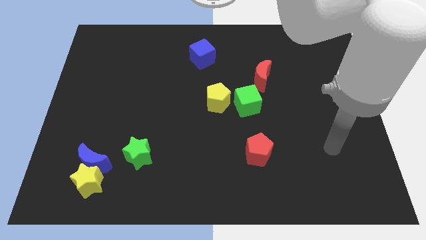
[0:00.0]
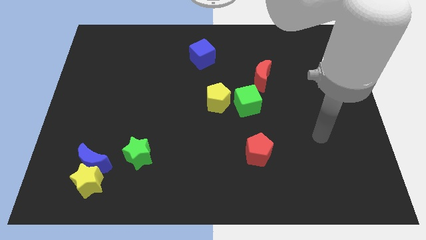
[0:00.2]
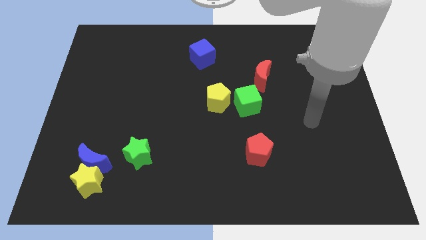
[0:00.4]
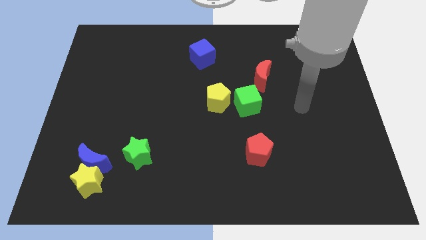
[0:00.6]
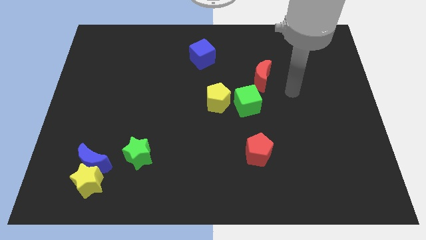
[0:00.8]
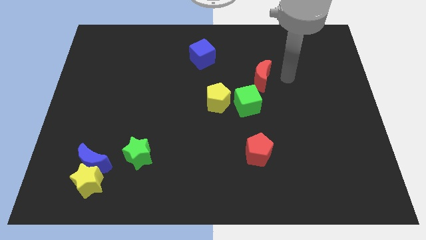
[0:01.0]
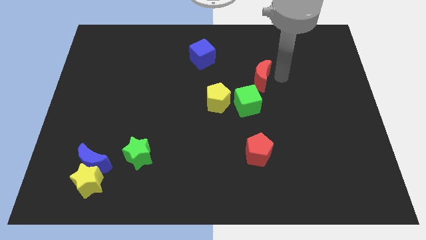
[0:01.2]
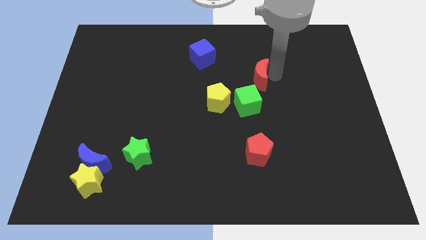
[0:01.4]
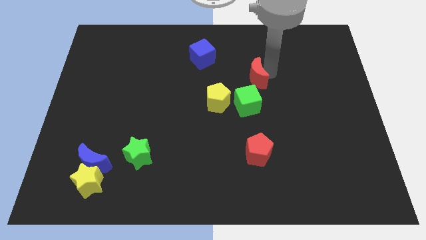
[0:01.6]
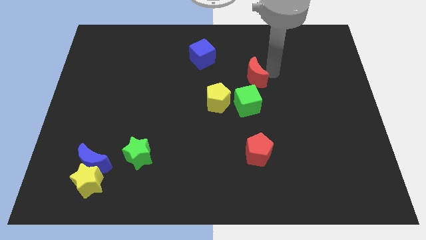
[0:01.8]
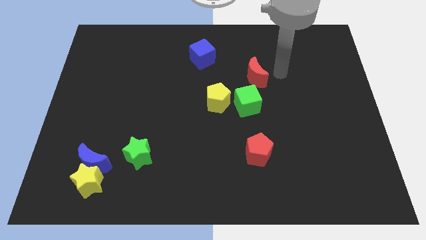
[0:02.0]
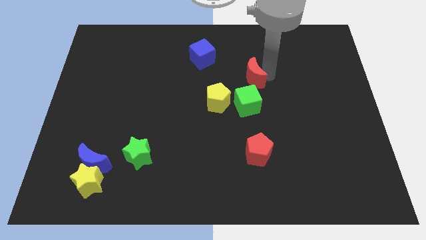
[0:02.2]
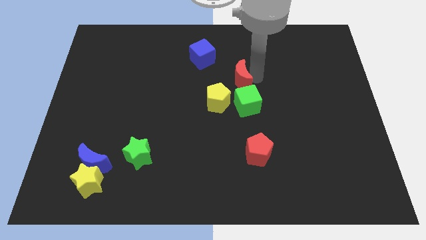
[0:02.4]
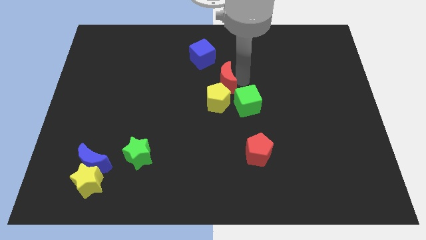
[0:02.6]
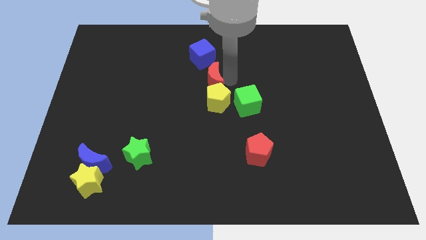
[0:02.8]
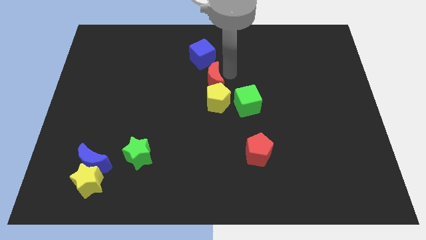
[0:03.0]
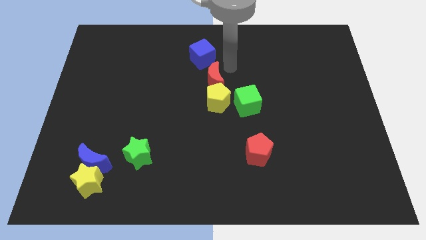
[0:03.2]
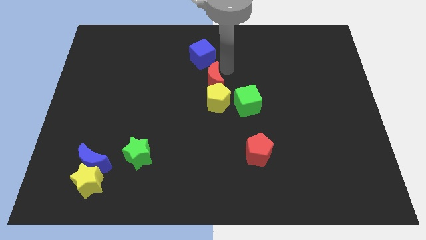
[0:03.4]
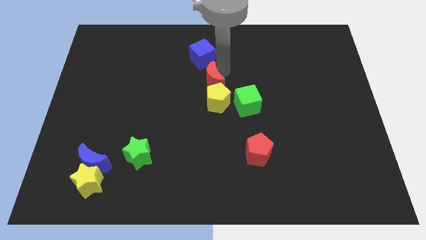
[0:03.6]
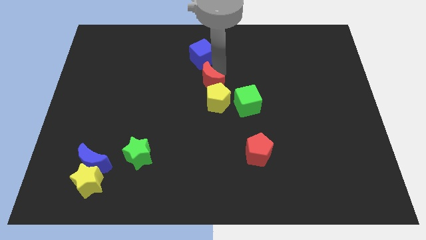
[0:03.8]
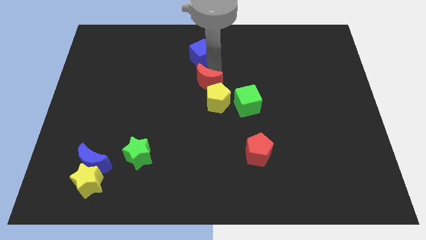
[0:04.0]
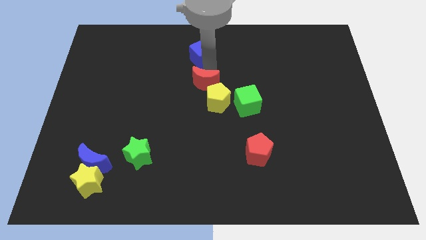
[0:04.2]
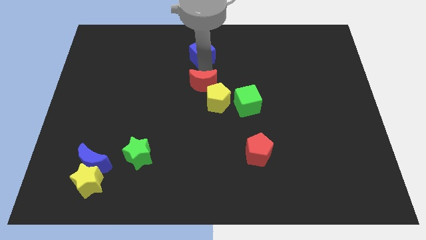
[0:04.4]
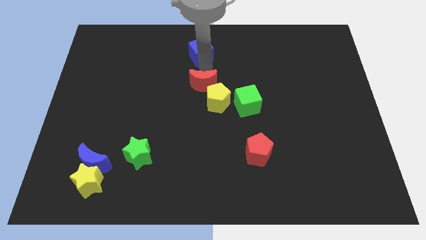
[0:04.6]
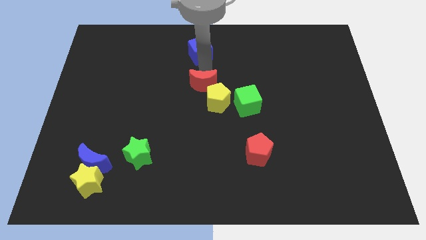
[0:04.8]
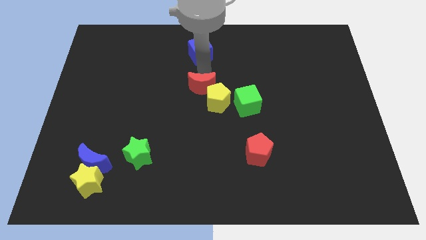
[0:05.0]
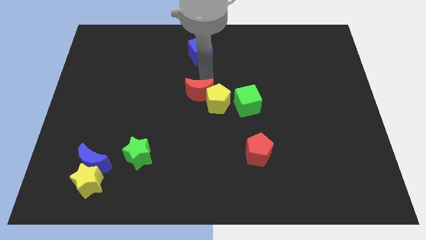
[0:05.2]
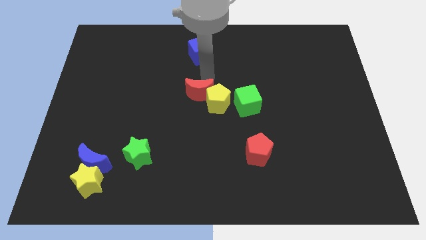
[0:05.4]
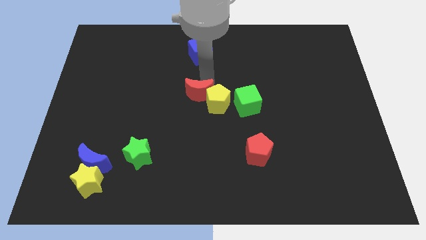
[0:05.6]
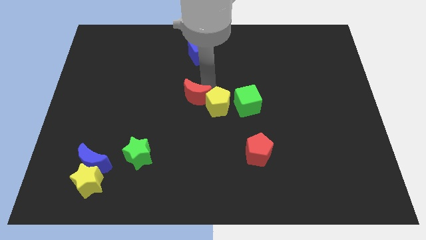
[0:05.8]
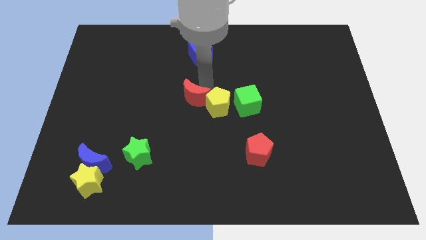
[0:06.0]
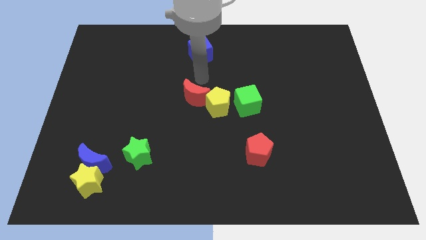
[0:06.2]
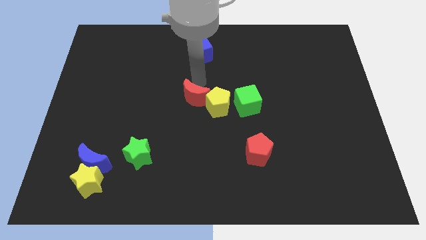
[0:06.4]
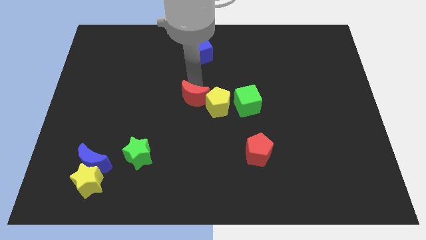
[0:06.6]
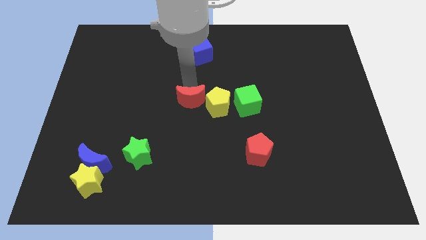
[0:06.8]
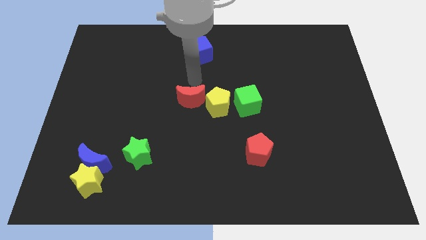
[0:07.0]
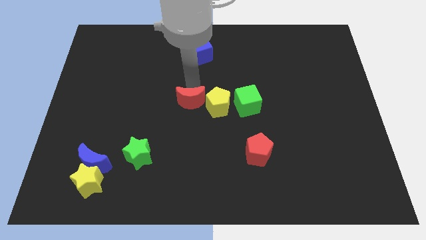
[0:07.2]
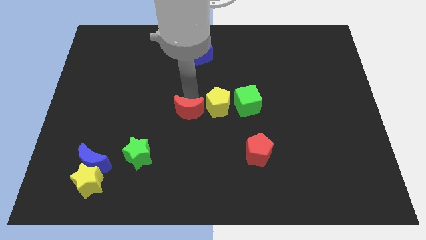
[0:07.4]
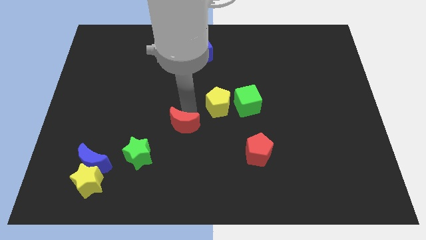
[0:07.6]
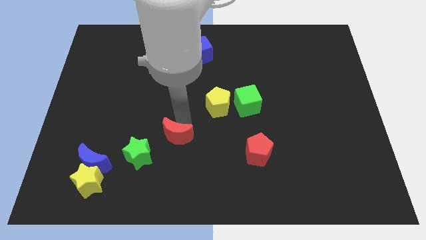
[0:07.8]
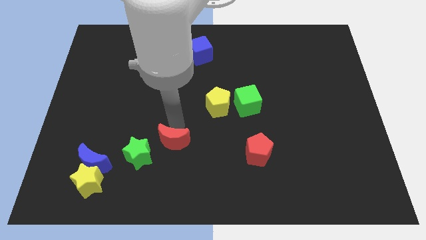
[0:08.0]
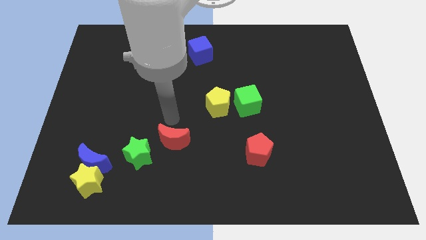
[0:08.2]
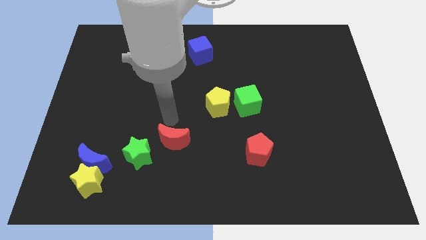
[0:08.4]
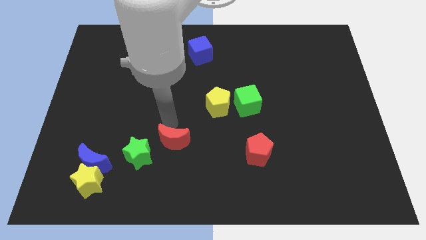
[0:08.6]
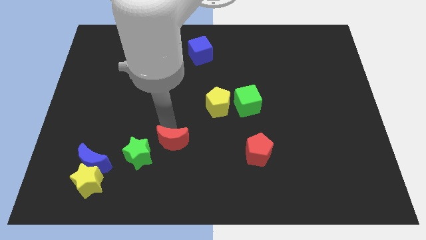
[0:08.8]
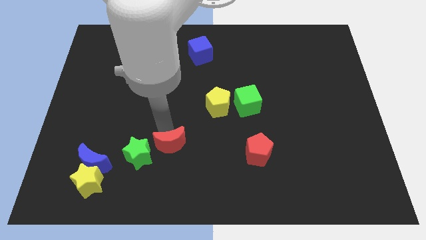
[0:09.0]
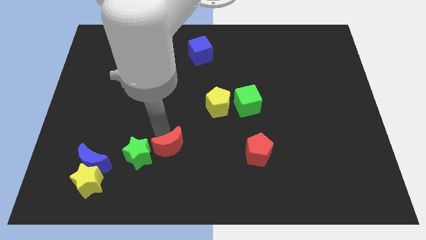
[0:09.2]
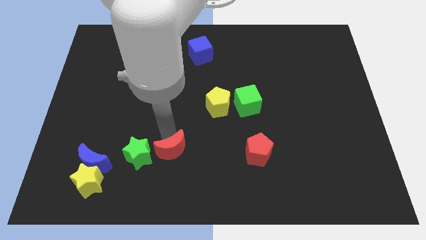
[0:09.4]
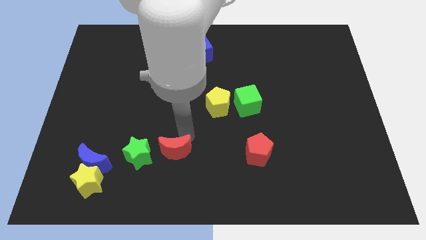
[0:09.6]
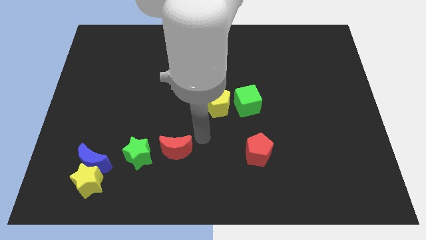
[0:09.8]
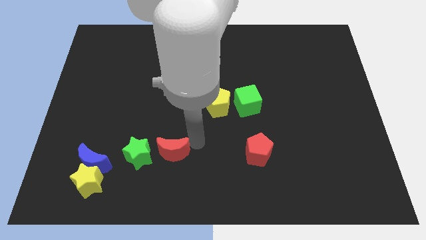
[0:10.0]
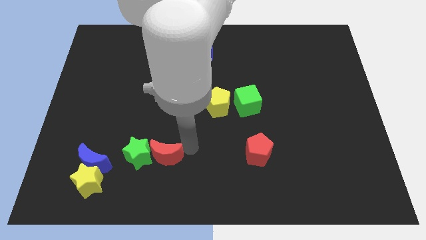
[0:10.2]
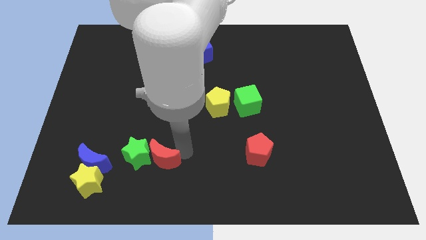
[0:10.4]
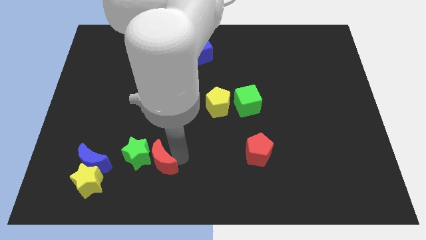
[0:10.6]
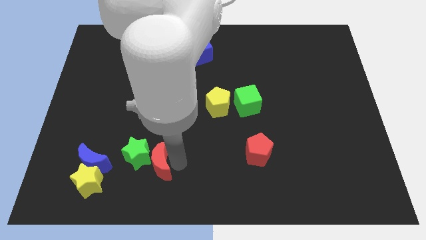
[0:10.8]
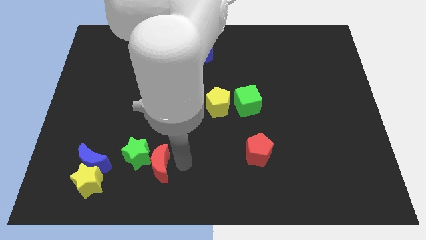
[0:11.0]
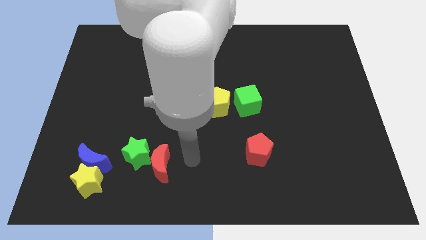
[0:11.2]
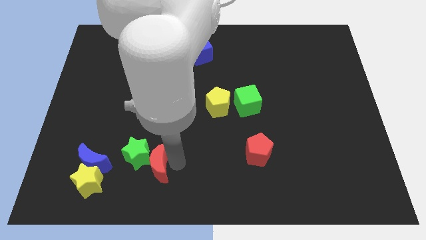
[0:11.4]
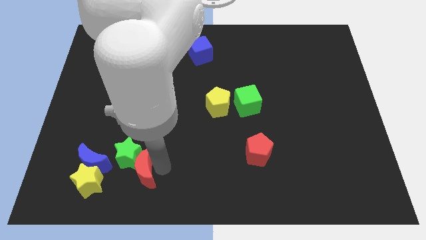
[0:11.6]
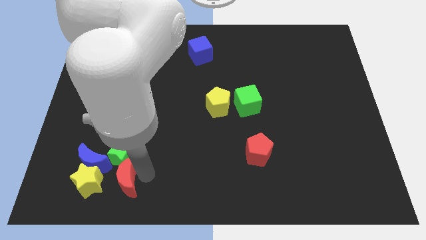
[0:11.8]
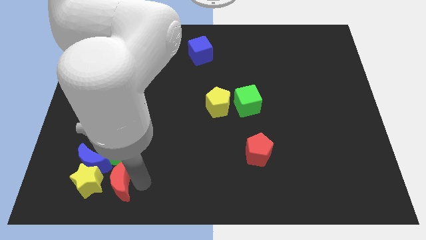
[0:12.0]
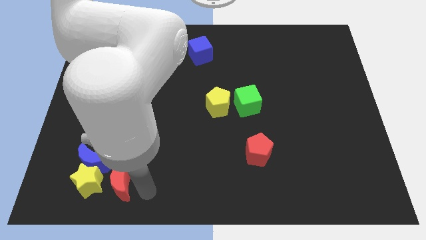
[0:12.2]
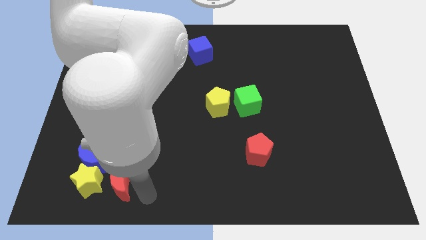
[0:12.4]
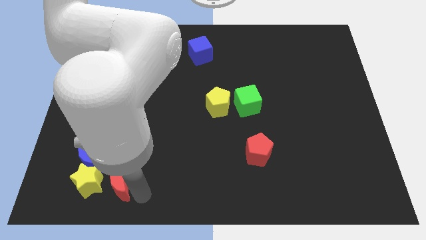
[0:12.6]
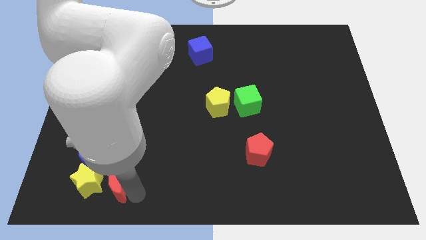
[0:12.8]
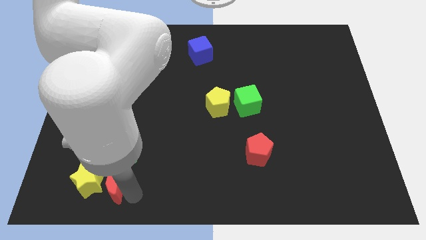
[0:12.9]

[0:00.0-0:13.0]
push the red moon to the yellow star
